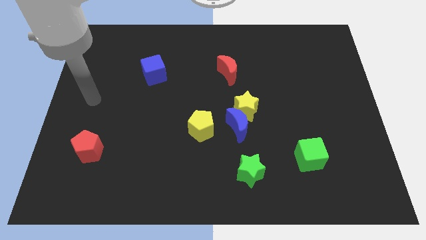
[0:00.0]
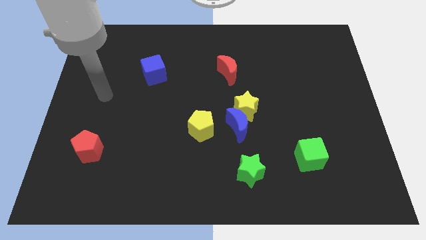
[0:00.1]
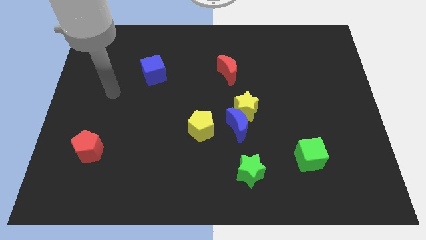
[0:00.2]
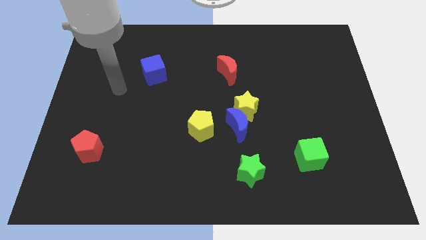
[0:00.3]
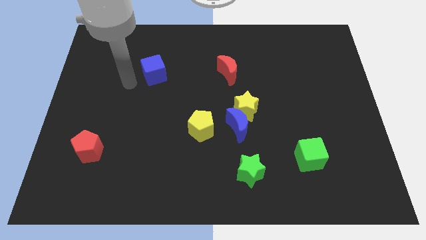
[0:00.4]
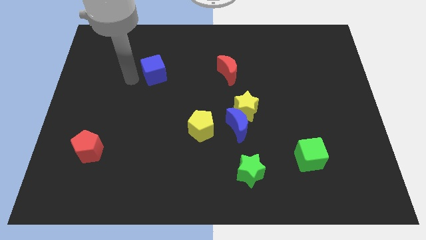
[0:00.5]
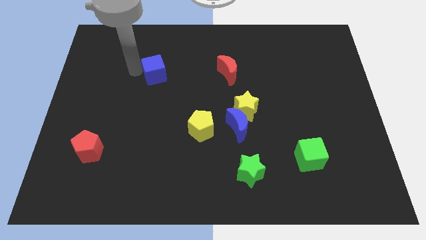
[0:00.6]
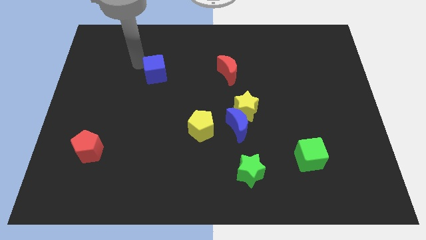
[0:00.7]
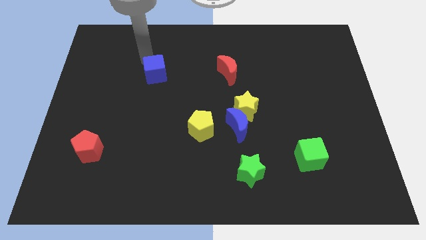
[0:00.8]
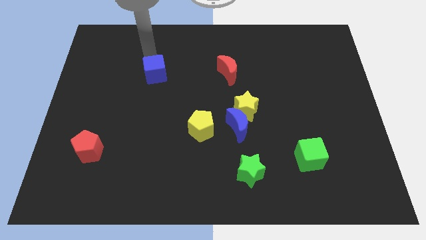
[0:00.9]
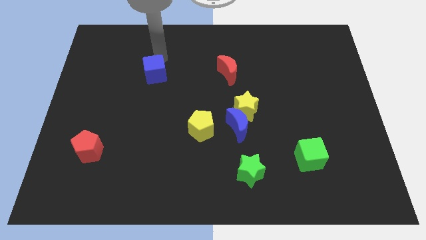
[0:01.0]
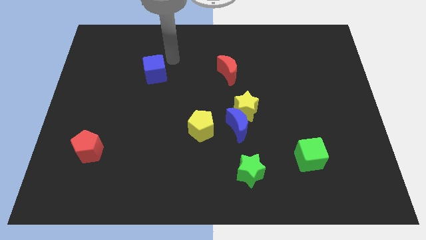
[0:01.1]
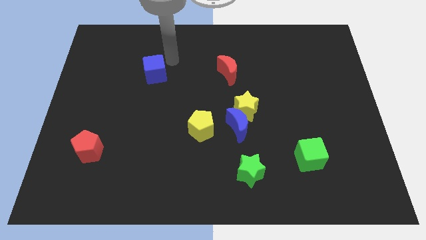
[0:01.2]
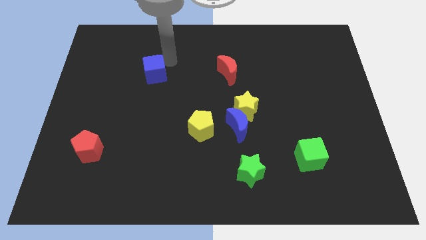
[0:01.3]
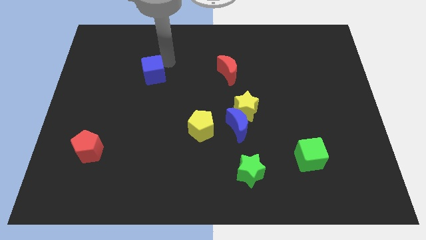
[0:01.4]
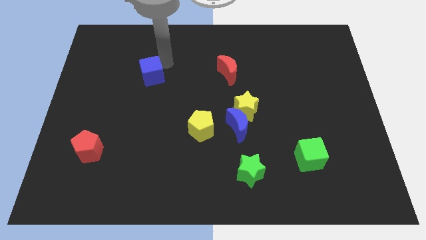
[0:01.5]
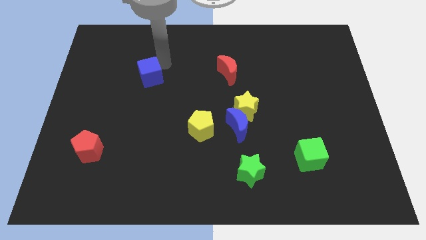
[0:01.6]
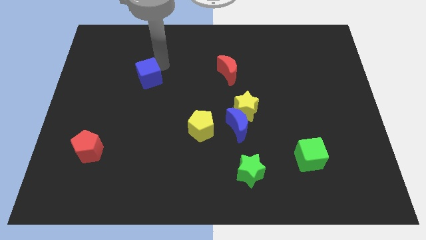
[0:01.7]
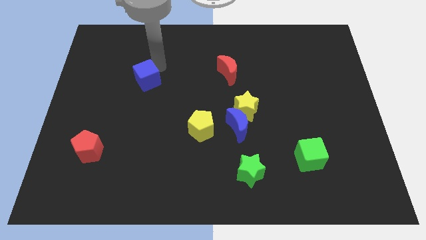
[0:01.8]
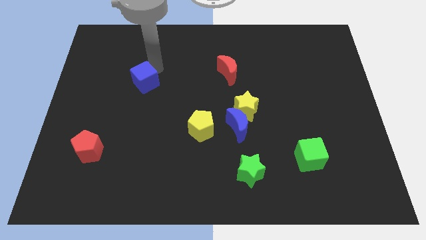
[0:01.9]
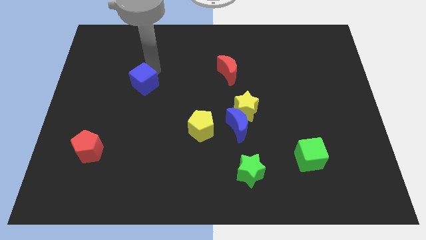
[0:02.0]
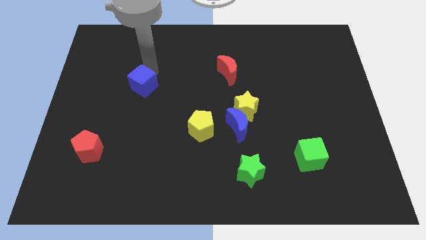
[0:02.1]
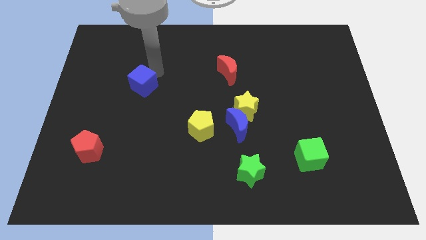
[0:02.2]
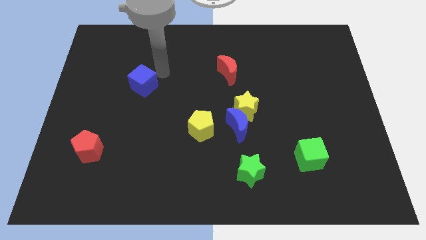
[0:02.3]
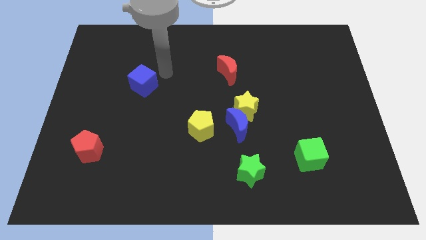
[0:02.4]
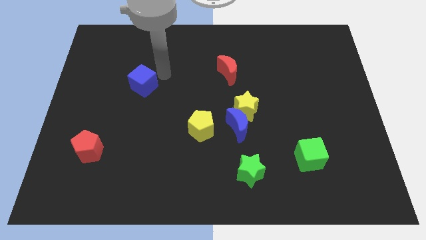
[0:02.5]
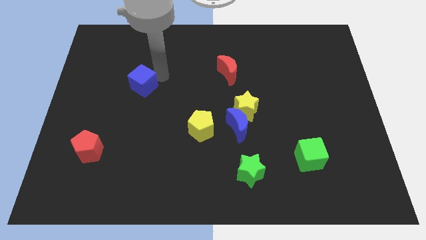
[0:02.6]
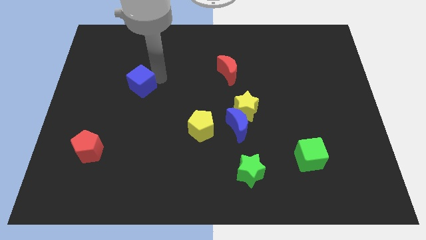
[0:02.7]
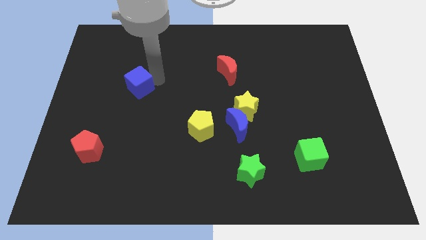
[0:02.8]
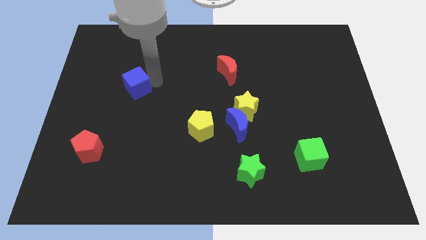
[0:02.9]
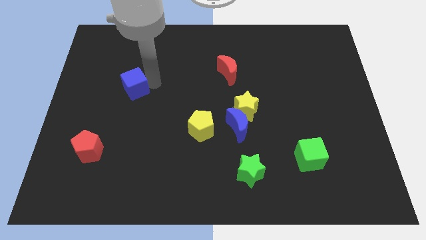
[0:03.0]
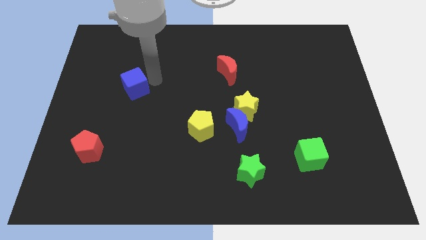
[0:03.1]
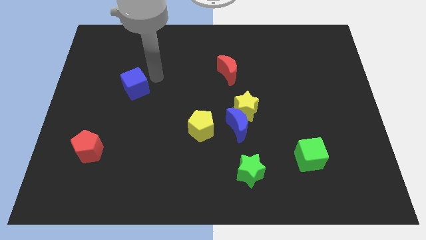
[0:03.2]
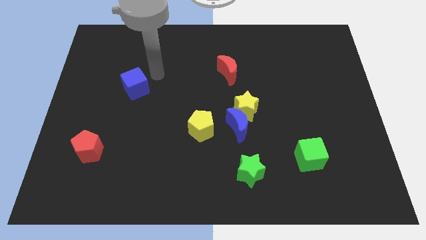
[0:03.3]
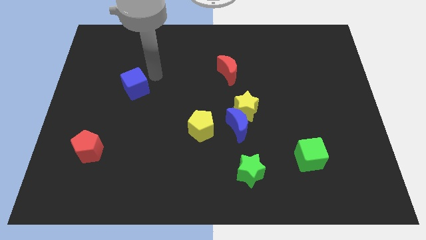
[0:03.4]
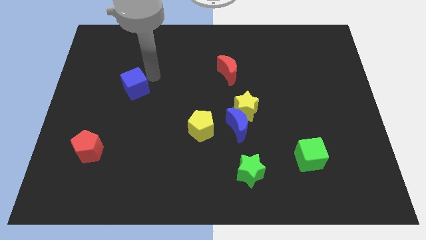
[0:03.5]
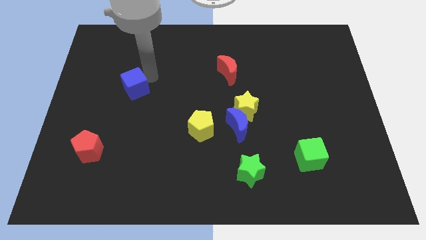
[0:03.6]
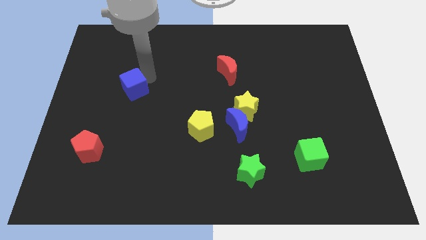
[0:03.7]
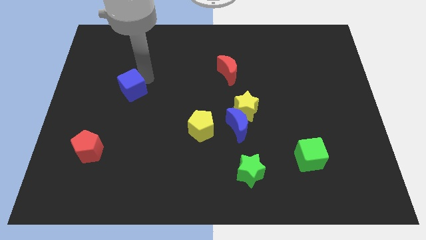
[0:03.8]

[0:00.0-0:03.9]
push the blue cube down and left somewhat

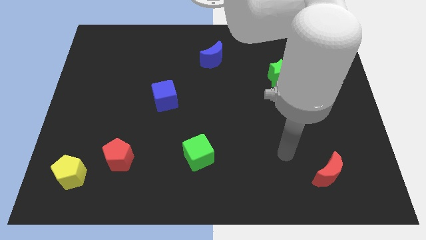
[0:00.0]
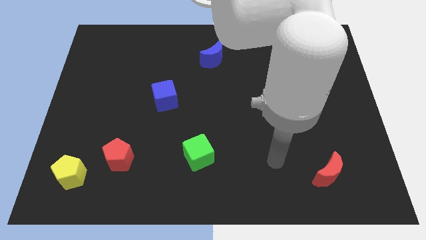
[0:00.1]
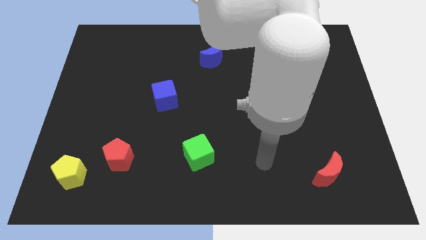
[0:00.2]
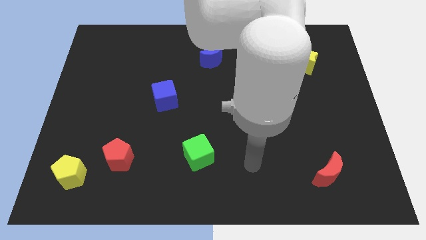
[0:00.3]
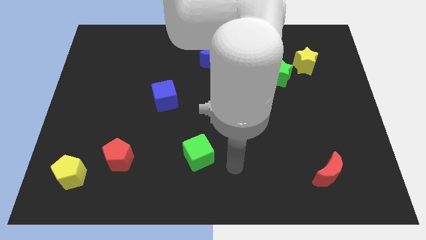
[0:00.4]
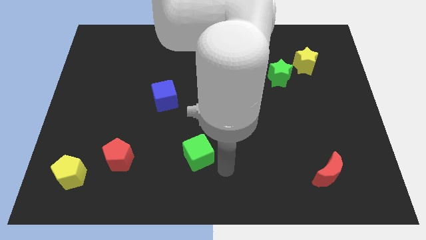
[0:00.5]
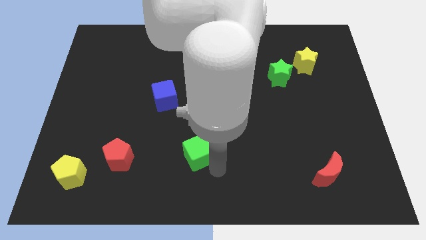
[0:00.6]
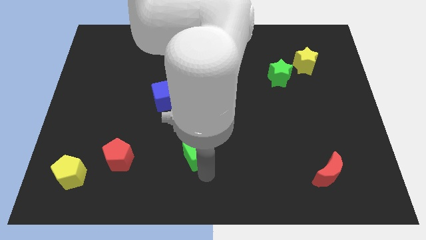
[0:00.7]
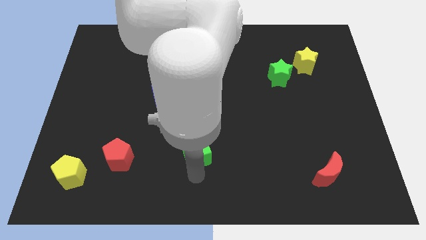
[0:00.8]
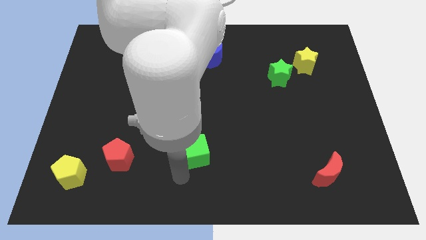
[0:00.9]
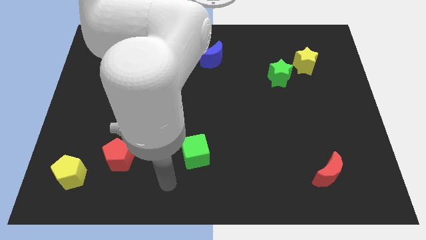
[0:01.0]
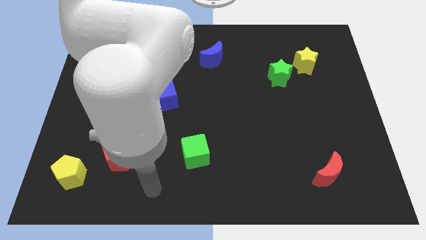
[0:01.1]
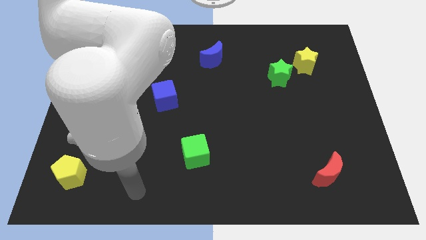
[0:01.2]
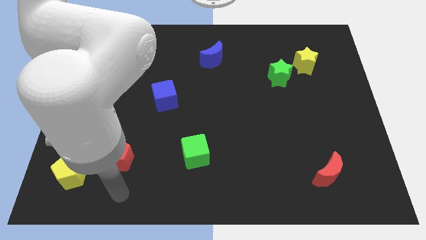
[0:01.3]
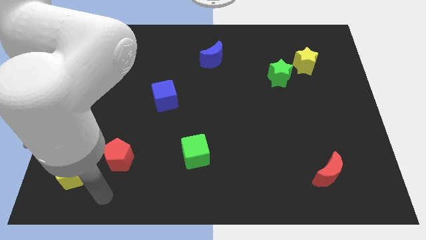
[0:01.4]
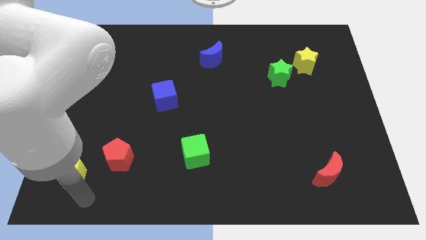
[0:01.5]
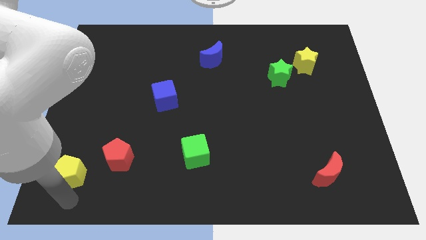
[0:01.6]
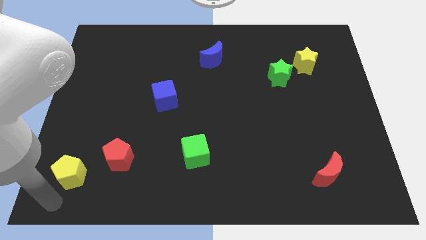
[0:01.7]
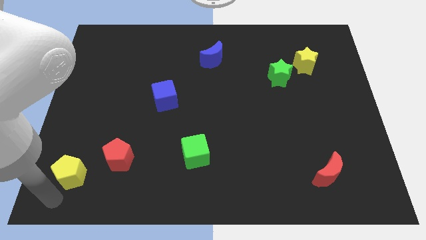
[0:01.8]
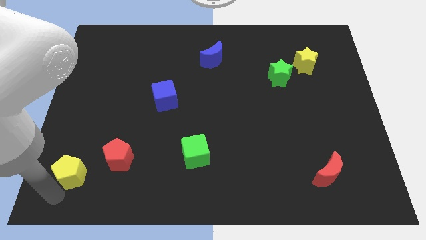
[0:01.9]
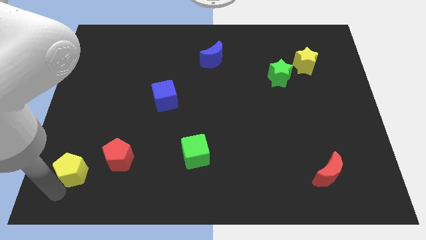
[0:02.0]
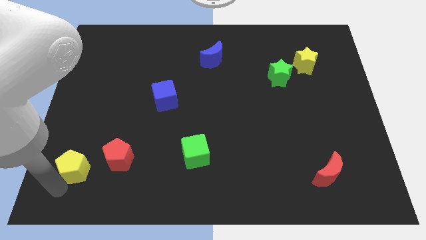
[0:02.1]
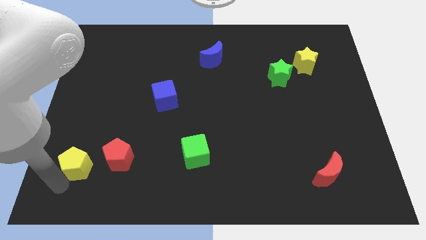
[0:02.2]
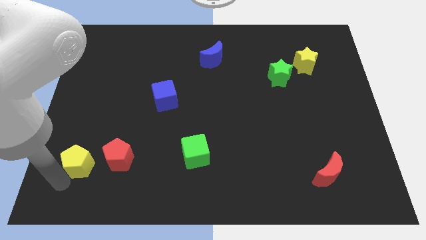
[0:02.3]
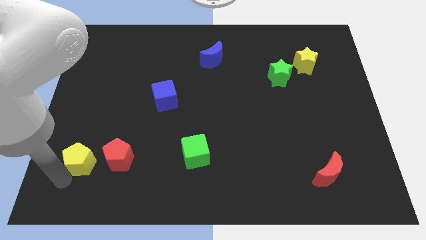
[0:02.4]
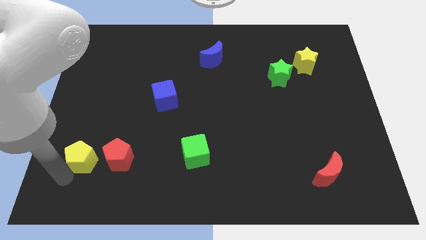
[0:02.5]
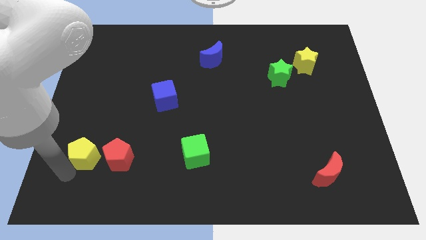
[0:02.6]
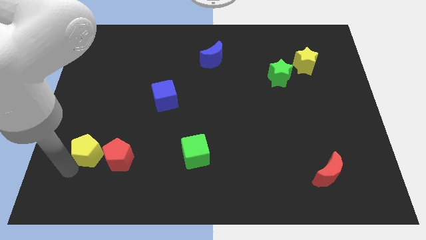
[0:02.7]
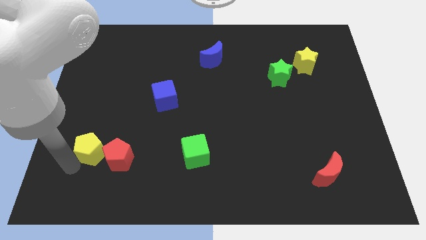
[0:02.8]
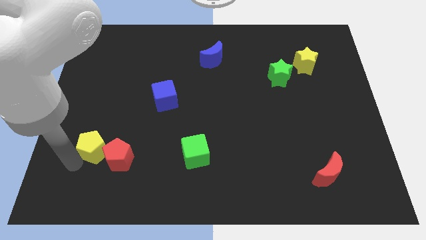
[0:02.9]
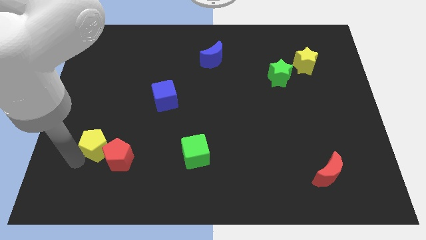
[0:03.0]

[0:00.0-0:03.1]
slide the yellow pentagon up and to the right diagonally a little

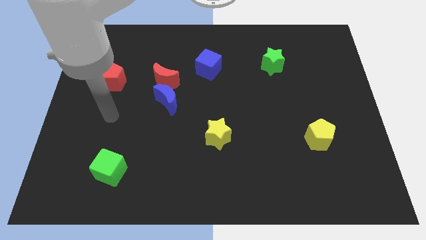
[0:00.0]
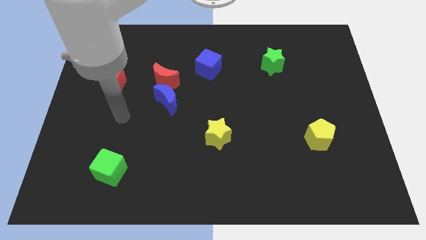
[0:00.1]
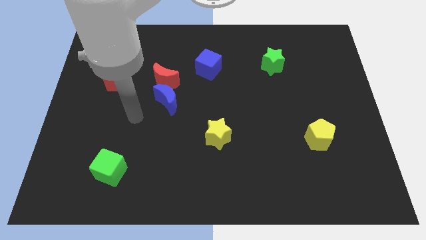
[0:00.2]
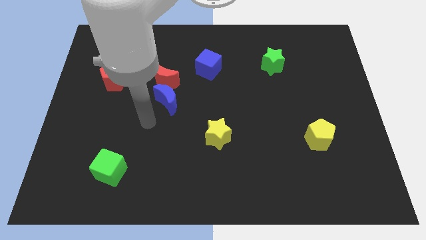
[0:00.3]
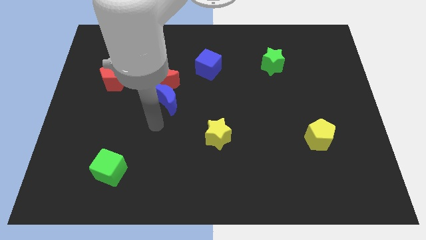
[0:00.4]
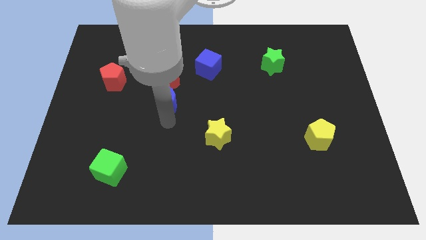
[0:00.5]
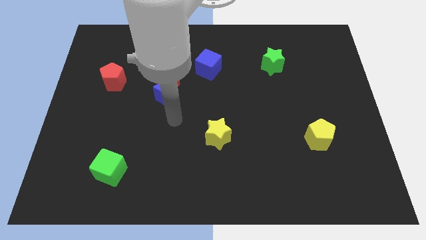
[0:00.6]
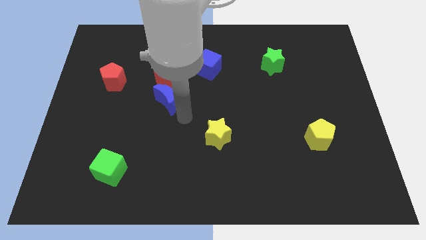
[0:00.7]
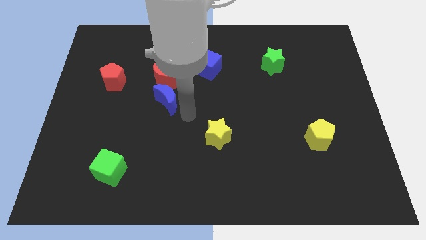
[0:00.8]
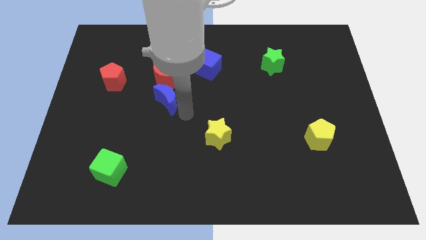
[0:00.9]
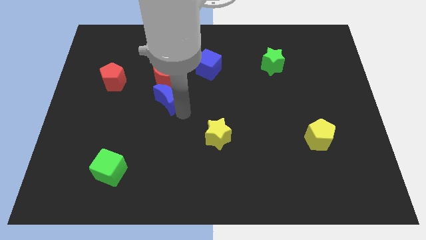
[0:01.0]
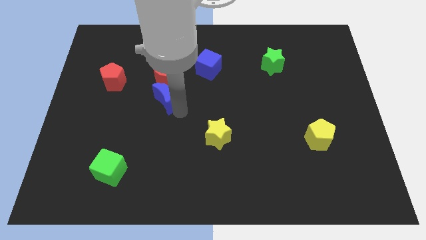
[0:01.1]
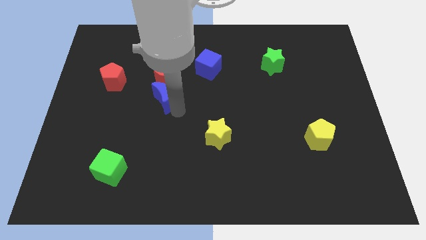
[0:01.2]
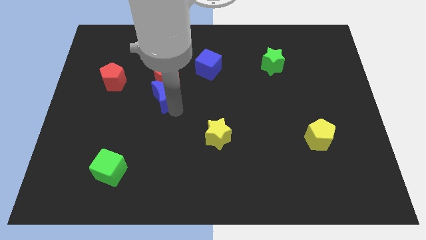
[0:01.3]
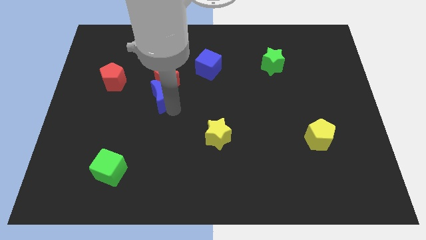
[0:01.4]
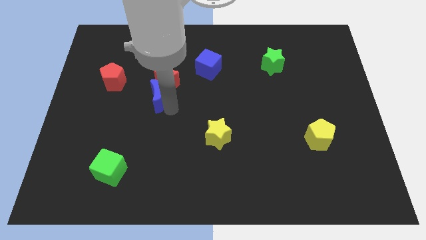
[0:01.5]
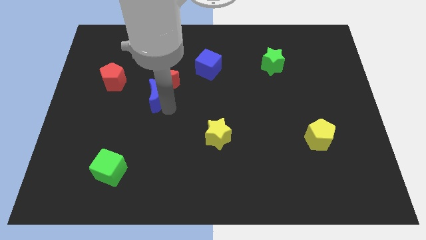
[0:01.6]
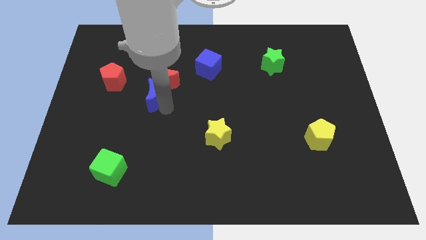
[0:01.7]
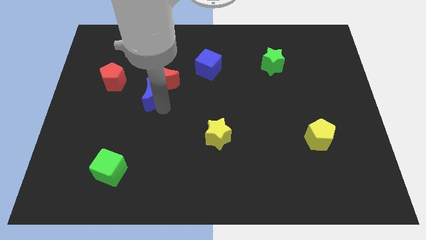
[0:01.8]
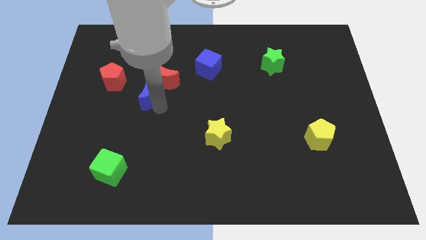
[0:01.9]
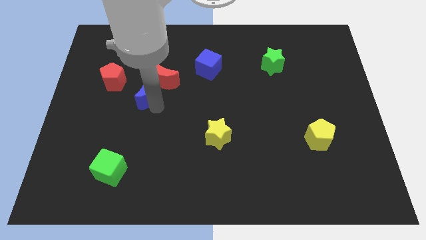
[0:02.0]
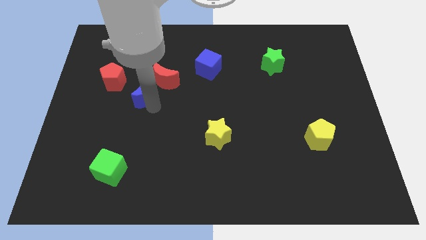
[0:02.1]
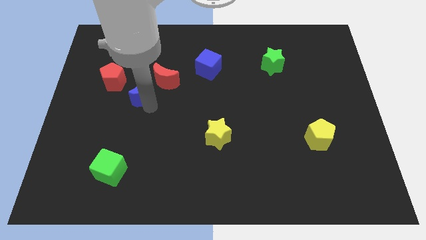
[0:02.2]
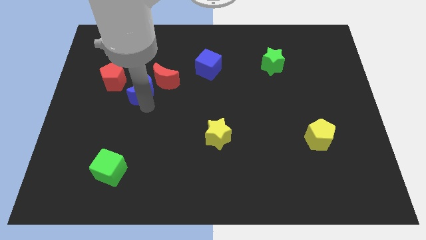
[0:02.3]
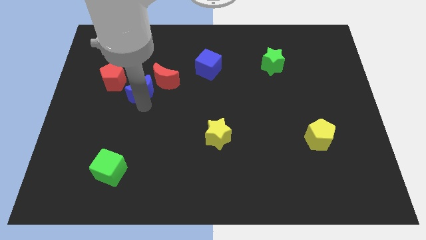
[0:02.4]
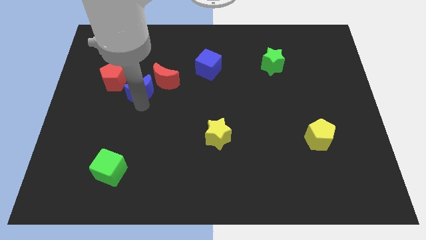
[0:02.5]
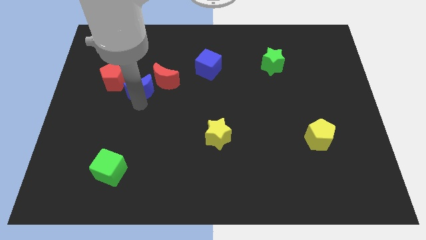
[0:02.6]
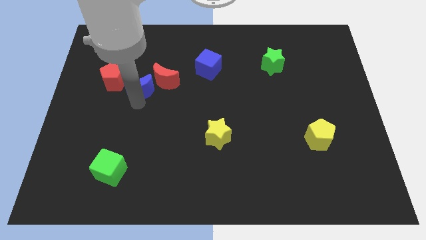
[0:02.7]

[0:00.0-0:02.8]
move the blue moon up and left diagonally somewhat
